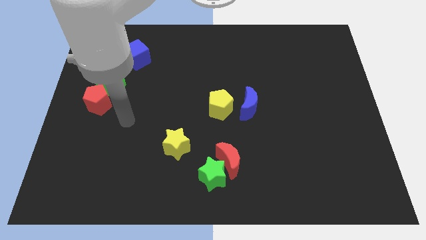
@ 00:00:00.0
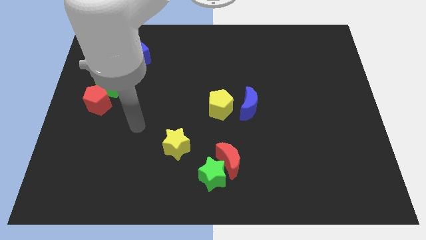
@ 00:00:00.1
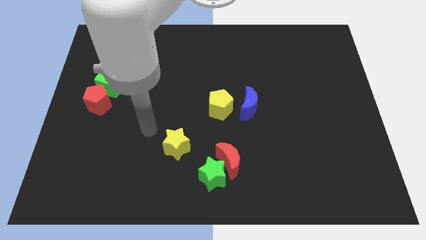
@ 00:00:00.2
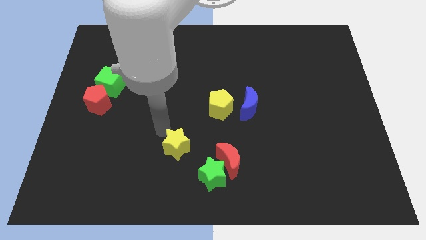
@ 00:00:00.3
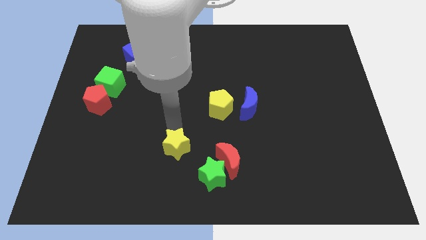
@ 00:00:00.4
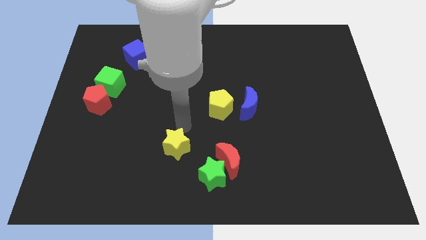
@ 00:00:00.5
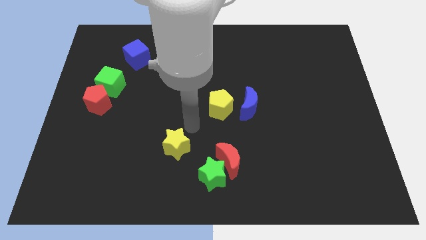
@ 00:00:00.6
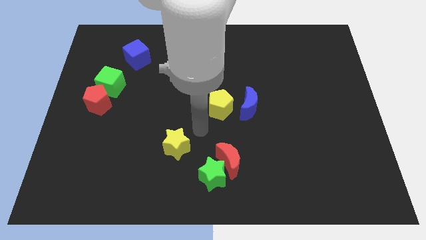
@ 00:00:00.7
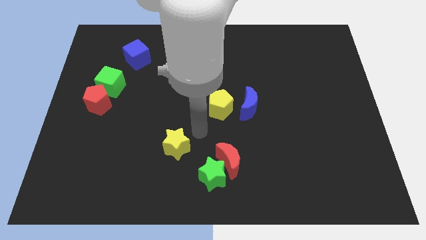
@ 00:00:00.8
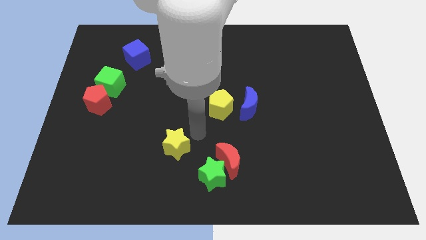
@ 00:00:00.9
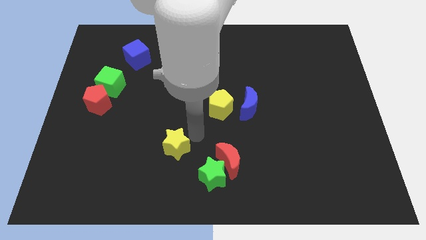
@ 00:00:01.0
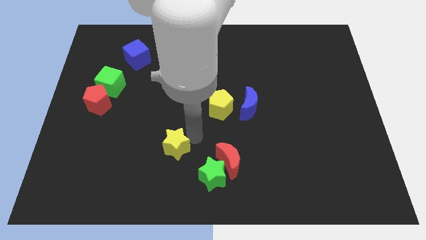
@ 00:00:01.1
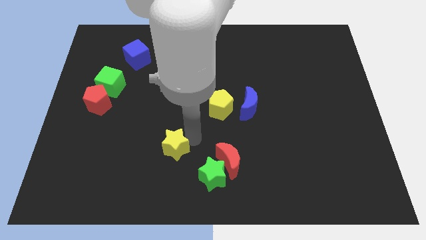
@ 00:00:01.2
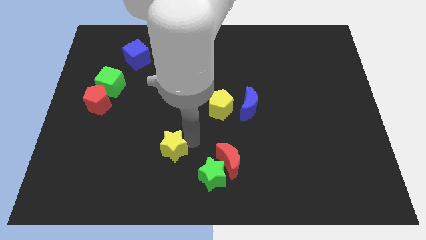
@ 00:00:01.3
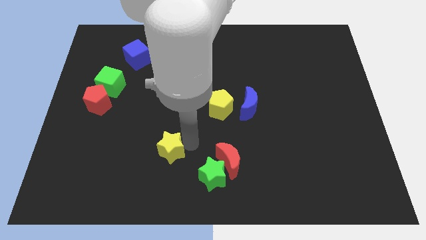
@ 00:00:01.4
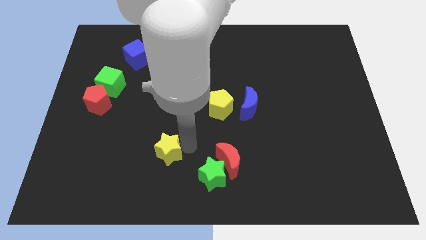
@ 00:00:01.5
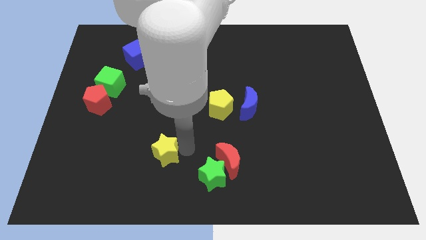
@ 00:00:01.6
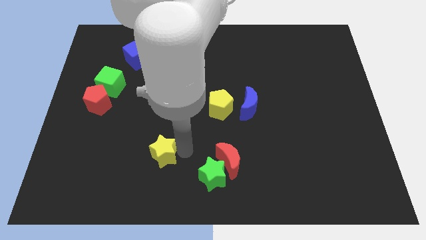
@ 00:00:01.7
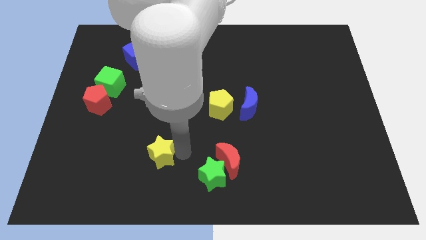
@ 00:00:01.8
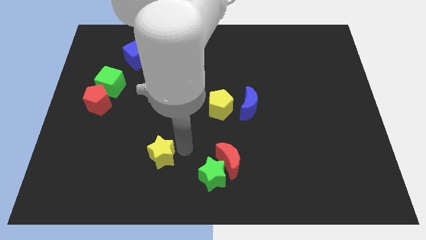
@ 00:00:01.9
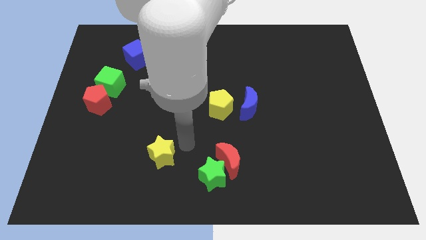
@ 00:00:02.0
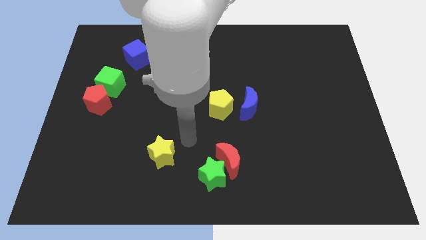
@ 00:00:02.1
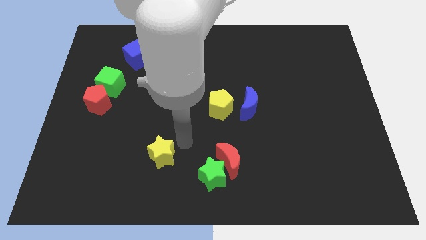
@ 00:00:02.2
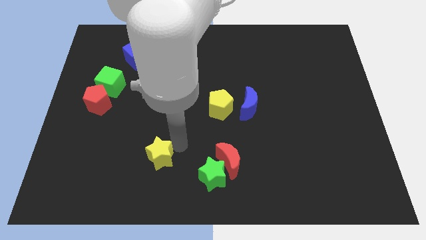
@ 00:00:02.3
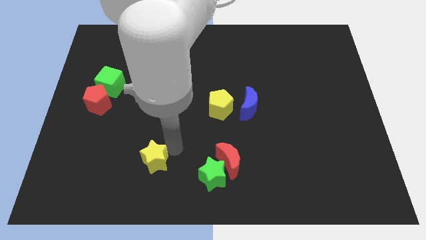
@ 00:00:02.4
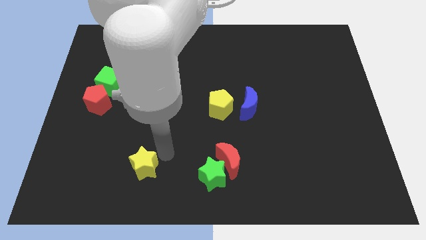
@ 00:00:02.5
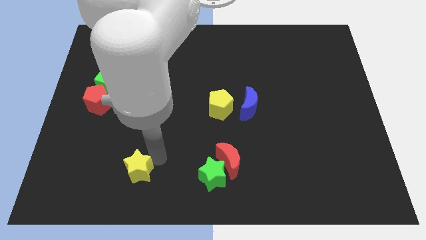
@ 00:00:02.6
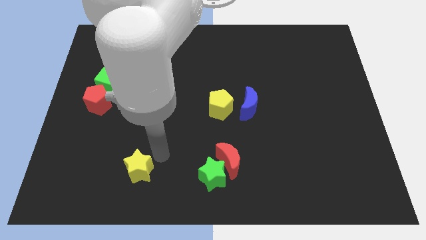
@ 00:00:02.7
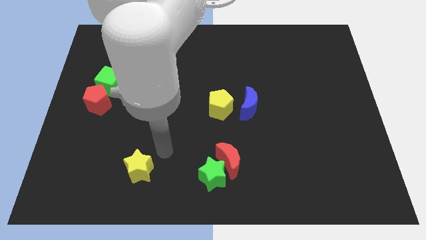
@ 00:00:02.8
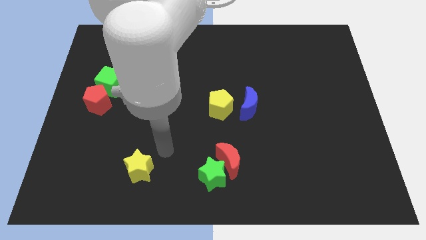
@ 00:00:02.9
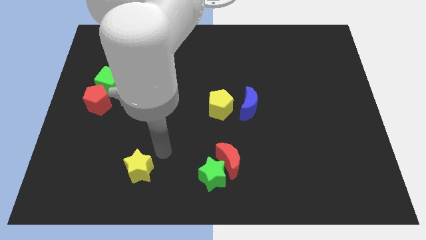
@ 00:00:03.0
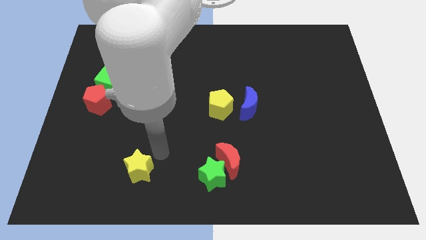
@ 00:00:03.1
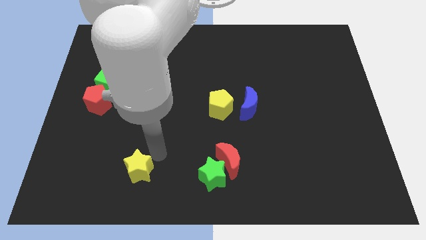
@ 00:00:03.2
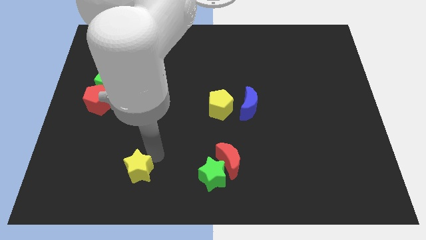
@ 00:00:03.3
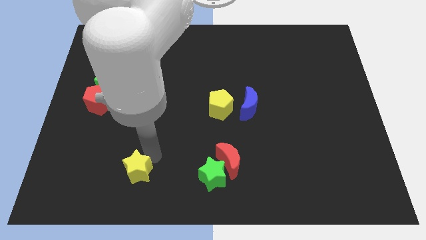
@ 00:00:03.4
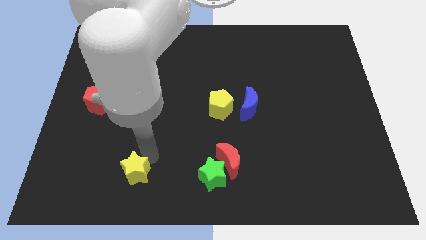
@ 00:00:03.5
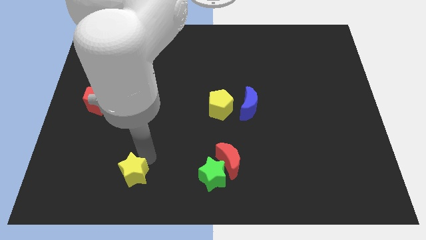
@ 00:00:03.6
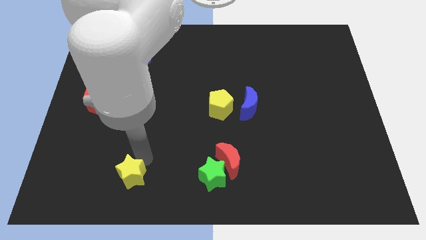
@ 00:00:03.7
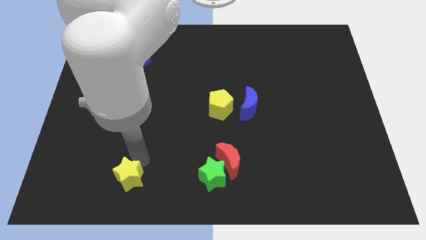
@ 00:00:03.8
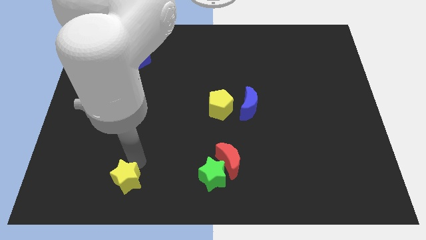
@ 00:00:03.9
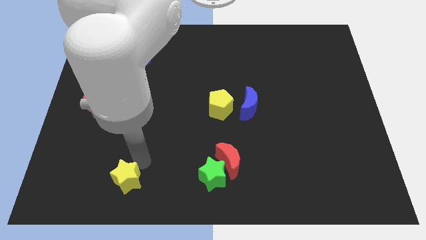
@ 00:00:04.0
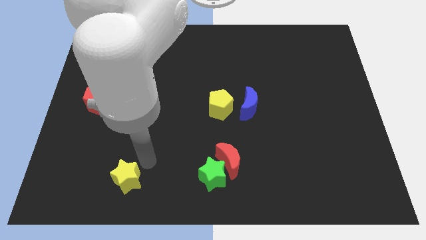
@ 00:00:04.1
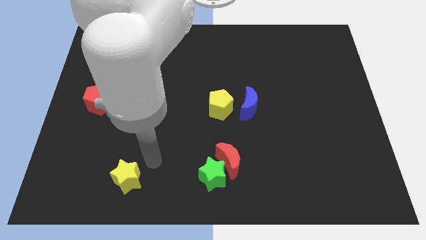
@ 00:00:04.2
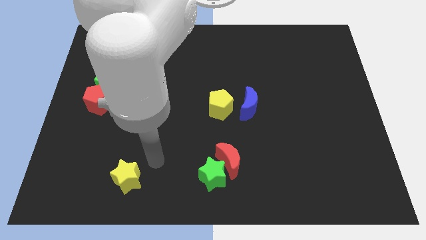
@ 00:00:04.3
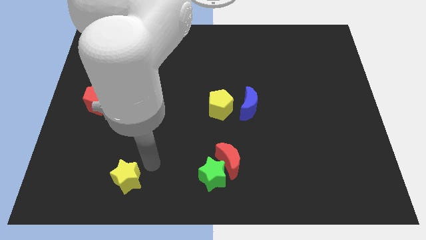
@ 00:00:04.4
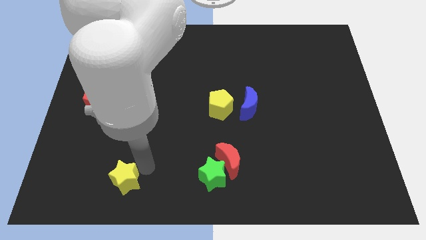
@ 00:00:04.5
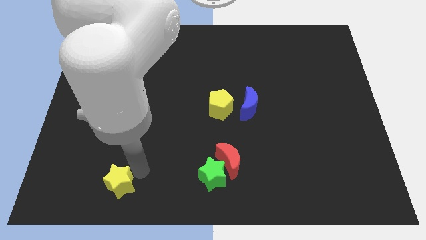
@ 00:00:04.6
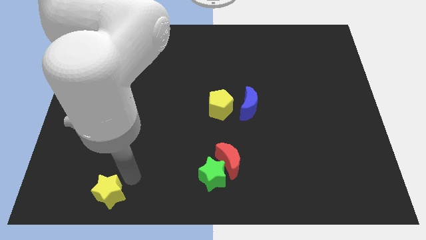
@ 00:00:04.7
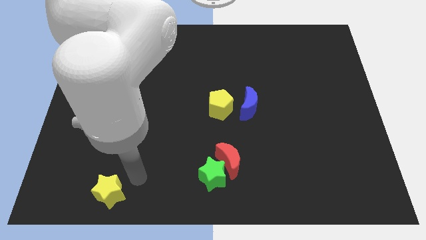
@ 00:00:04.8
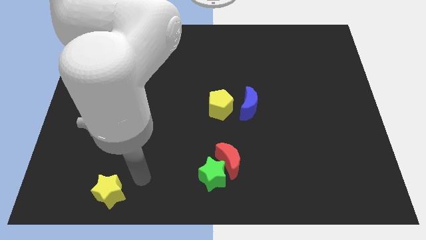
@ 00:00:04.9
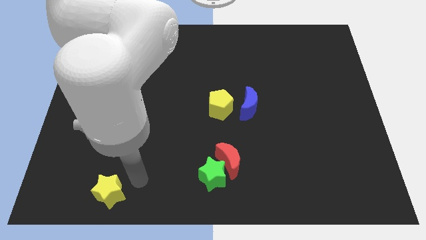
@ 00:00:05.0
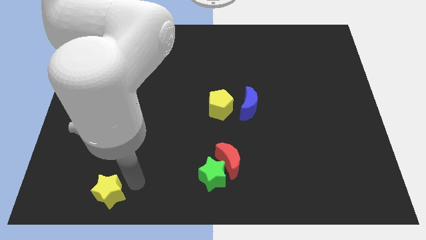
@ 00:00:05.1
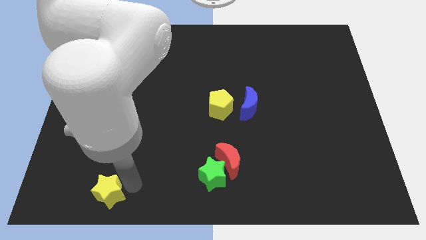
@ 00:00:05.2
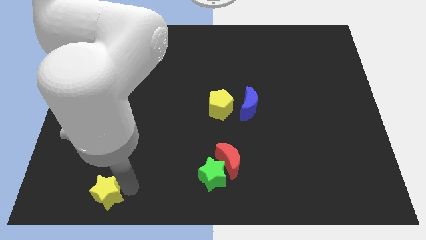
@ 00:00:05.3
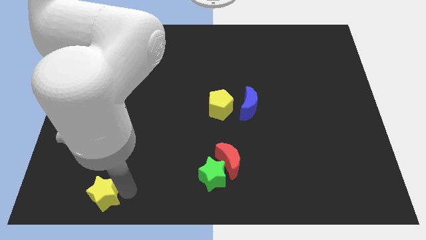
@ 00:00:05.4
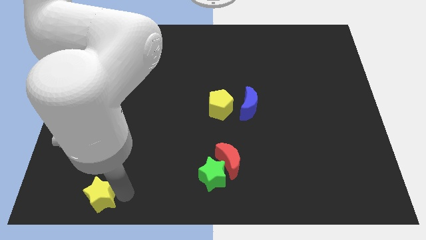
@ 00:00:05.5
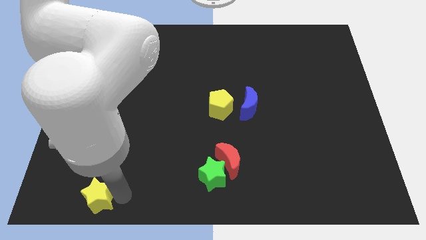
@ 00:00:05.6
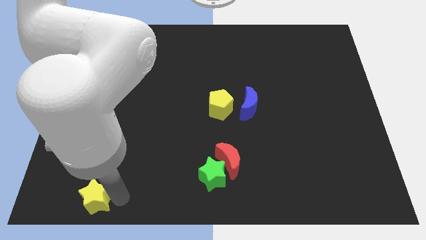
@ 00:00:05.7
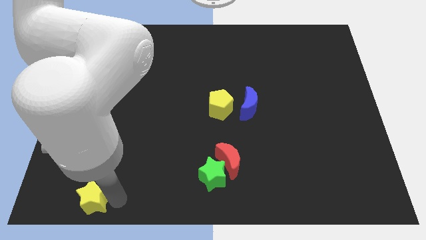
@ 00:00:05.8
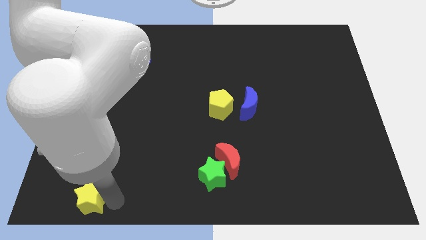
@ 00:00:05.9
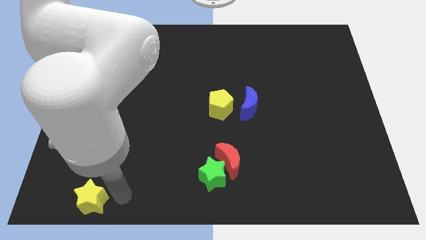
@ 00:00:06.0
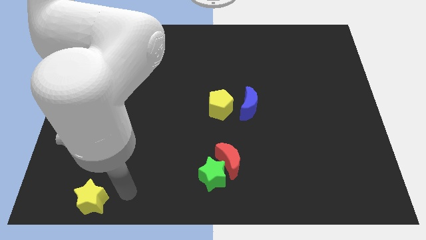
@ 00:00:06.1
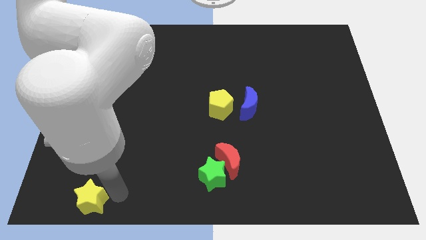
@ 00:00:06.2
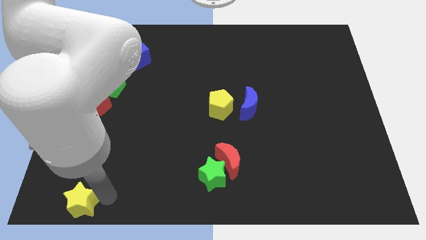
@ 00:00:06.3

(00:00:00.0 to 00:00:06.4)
move the yellow star to the bottom left
